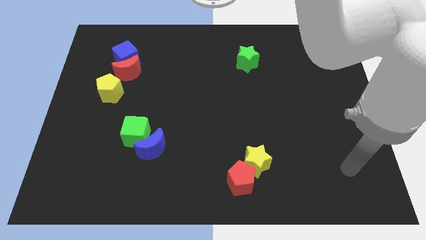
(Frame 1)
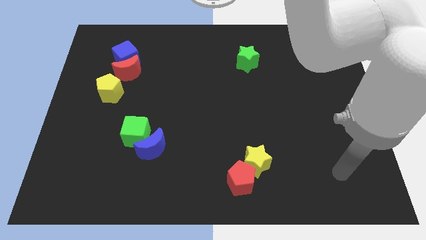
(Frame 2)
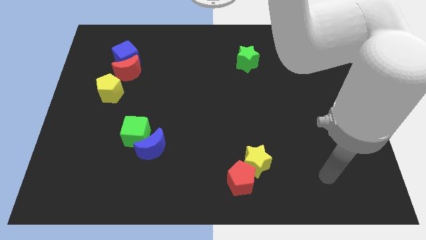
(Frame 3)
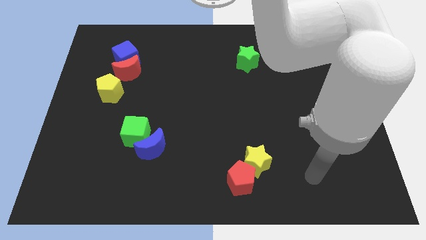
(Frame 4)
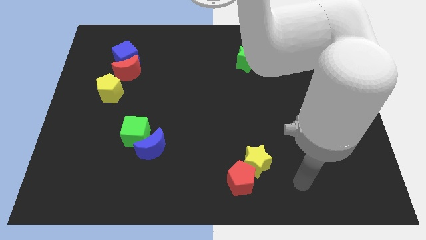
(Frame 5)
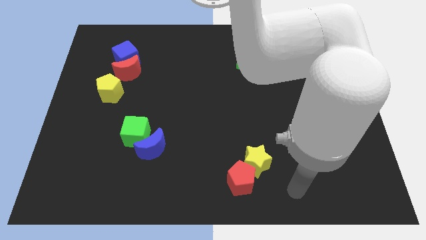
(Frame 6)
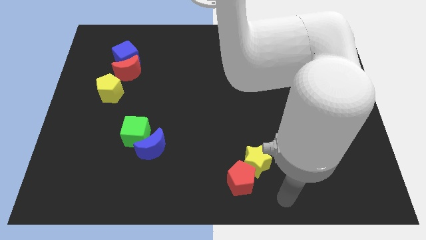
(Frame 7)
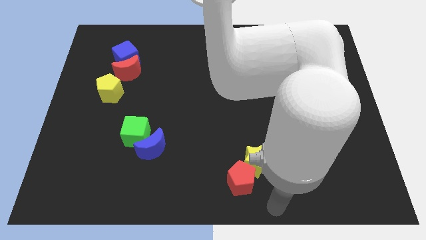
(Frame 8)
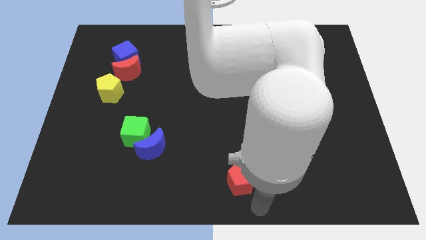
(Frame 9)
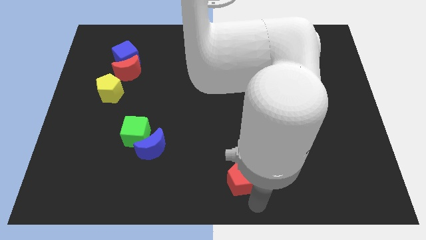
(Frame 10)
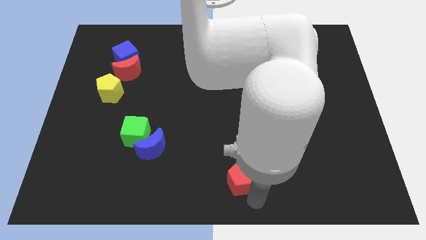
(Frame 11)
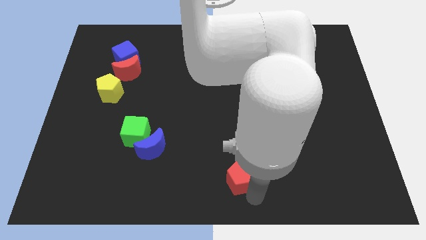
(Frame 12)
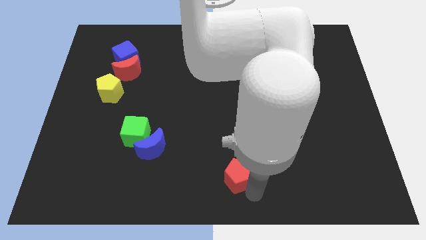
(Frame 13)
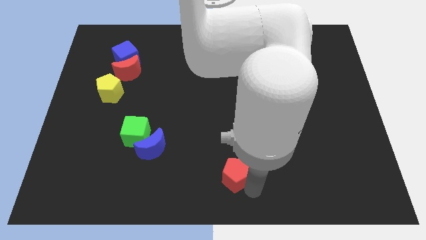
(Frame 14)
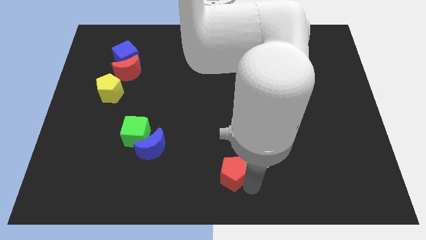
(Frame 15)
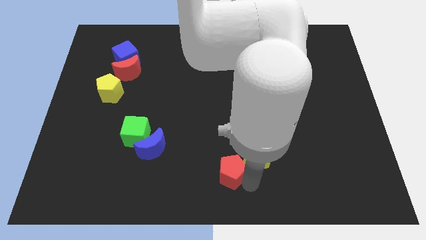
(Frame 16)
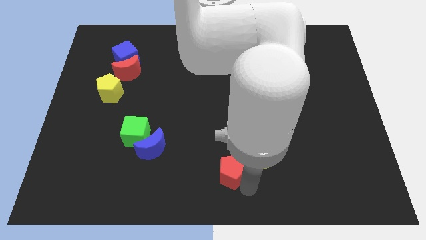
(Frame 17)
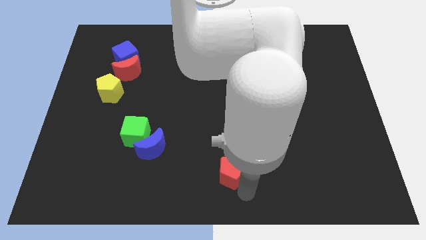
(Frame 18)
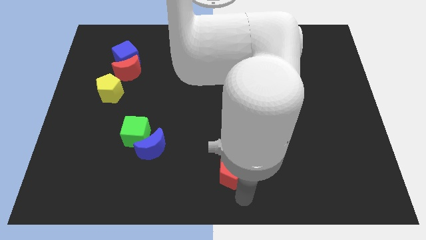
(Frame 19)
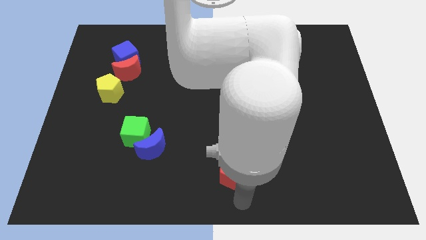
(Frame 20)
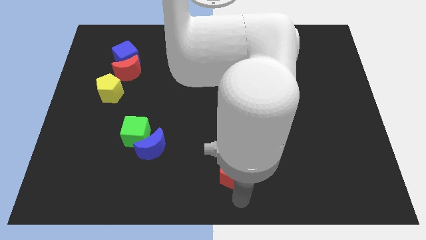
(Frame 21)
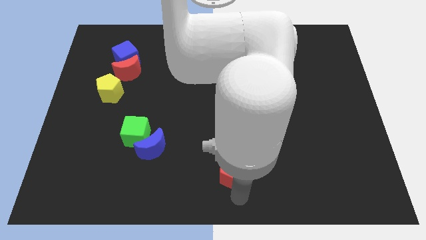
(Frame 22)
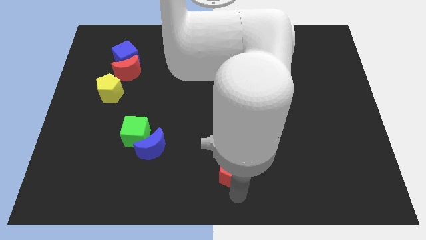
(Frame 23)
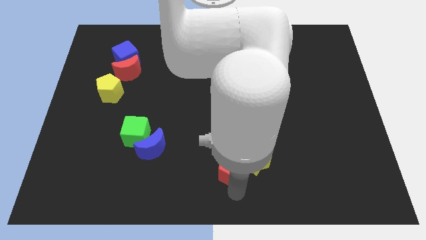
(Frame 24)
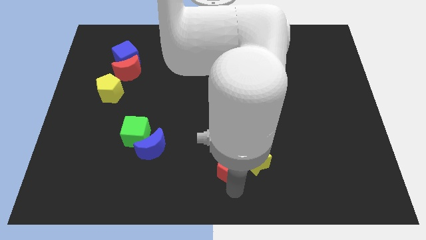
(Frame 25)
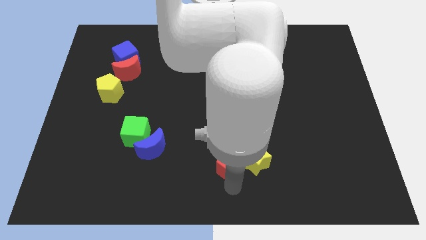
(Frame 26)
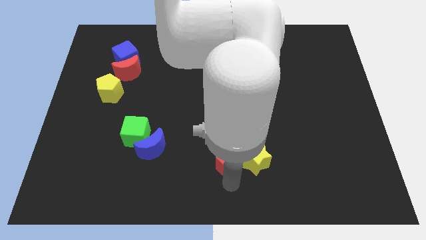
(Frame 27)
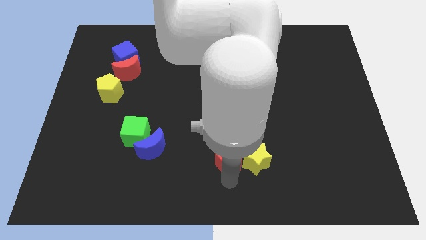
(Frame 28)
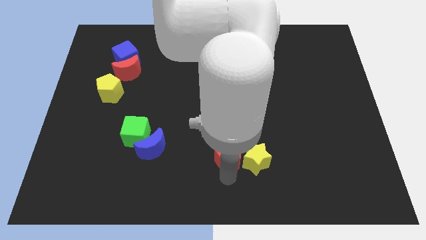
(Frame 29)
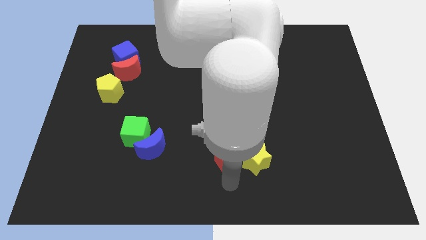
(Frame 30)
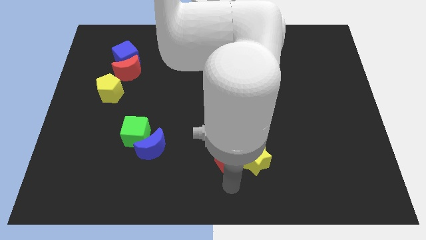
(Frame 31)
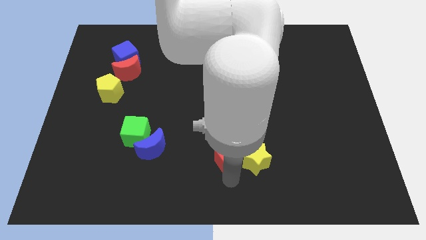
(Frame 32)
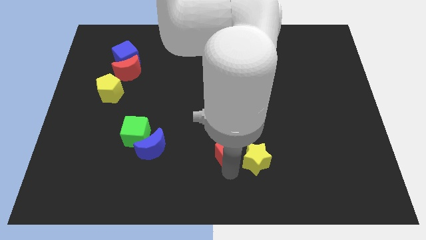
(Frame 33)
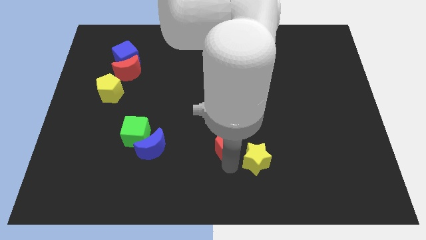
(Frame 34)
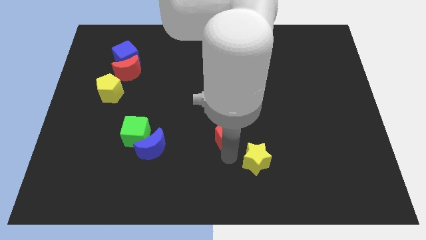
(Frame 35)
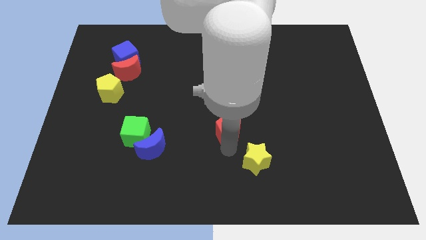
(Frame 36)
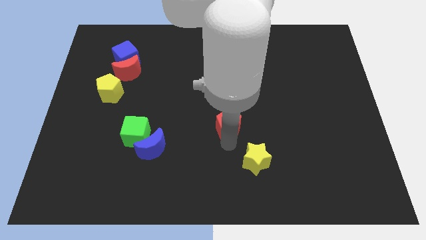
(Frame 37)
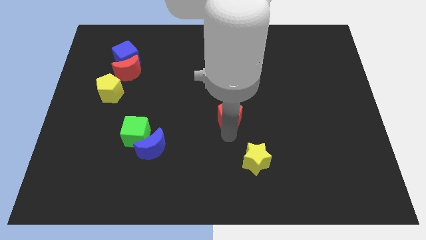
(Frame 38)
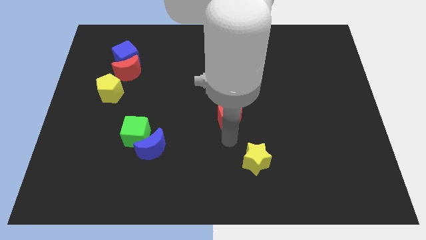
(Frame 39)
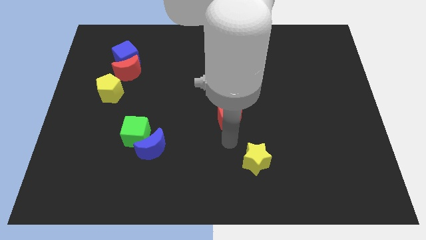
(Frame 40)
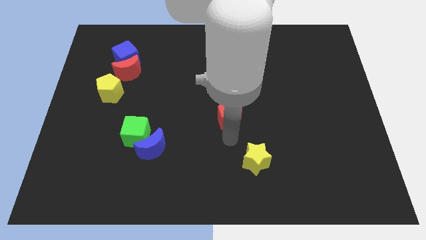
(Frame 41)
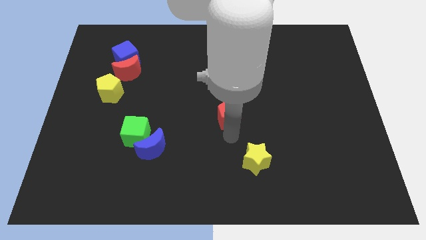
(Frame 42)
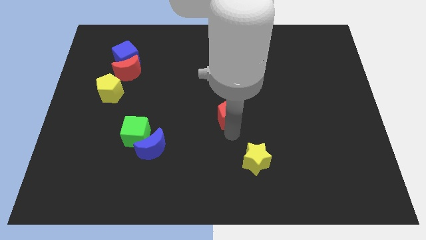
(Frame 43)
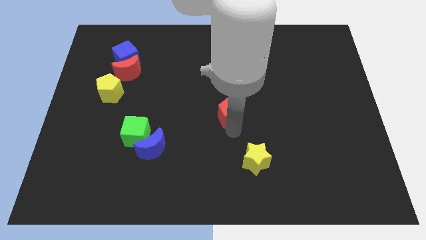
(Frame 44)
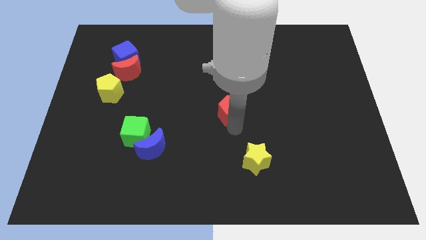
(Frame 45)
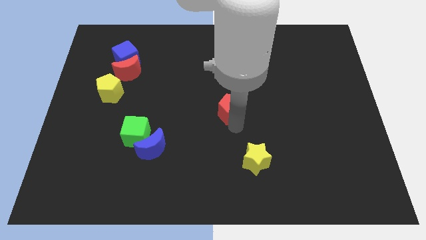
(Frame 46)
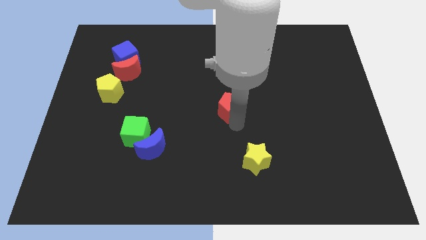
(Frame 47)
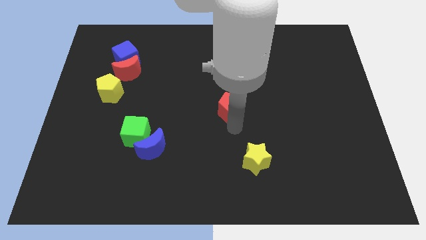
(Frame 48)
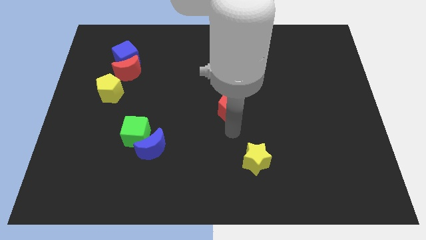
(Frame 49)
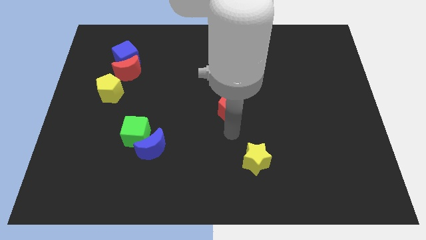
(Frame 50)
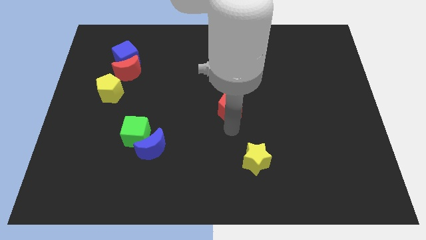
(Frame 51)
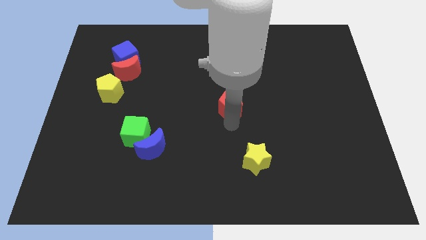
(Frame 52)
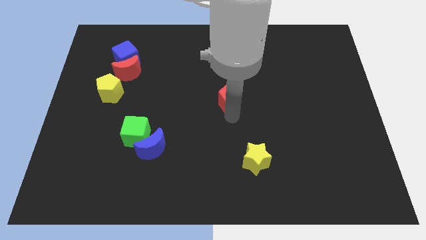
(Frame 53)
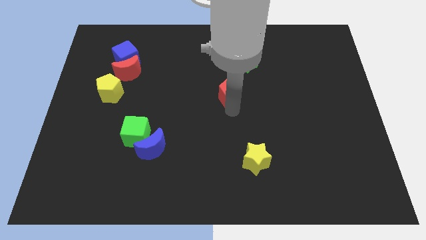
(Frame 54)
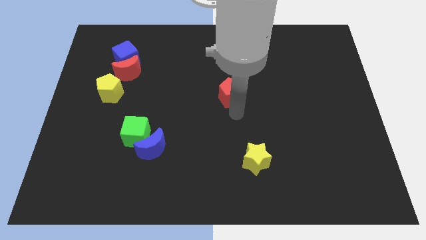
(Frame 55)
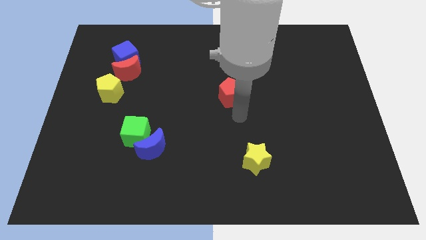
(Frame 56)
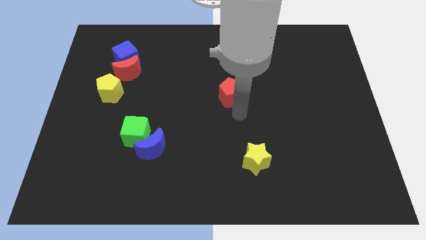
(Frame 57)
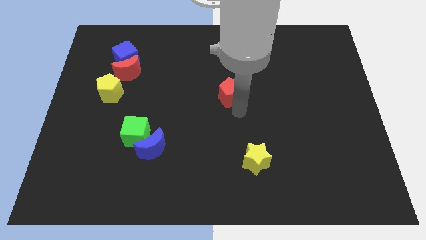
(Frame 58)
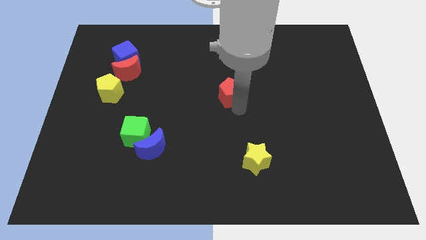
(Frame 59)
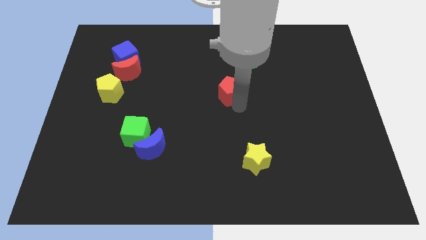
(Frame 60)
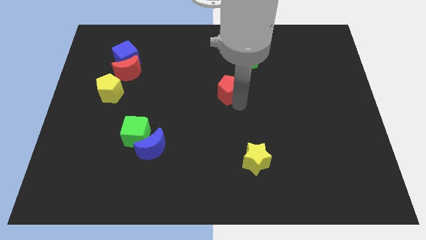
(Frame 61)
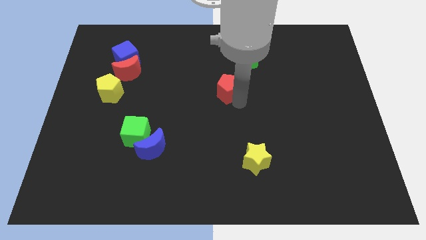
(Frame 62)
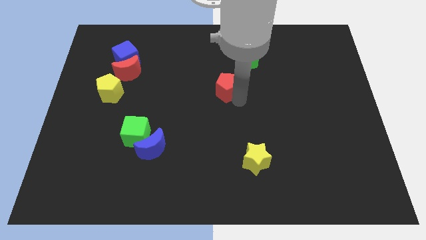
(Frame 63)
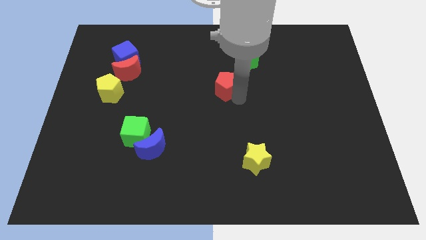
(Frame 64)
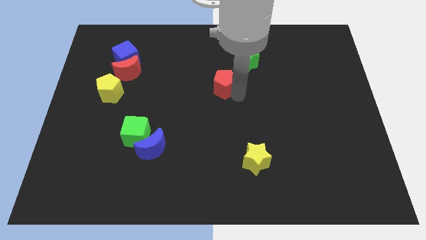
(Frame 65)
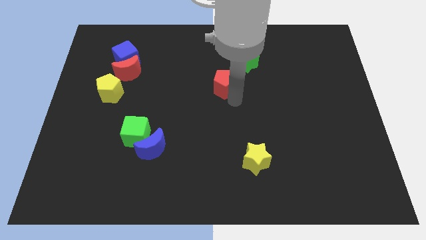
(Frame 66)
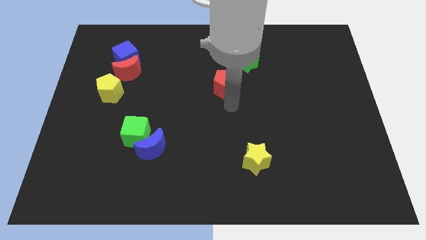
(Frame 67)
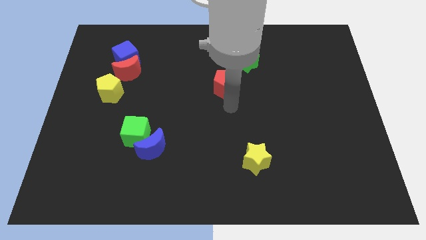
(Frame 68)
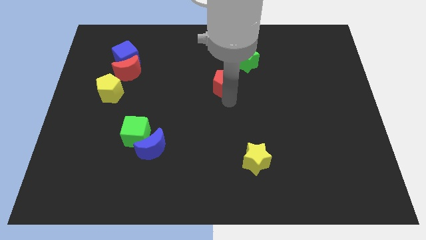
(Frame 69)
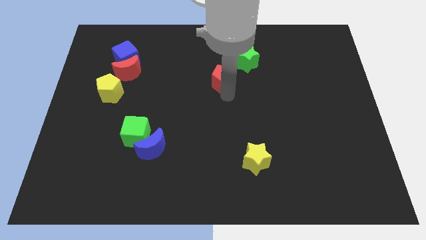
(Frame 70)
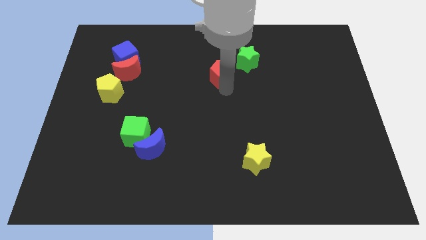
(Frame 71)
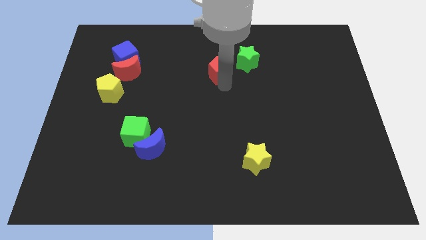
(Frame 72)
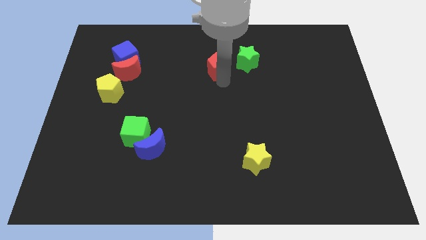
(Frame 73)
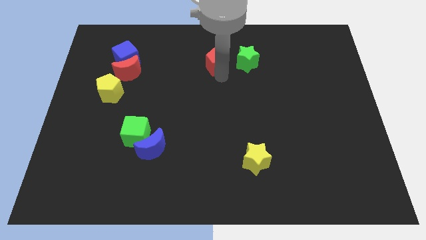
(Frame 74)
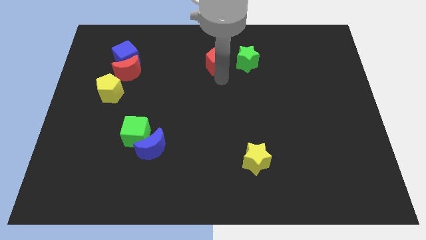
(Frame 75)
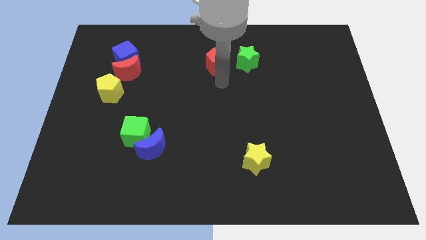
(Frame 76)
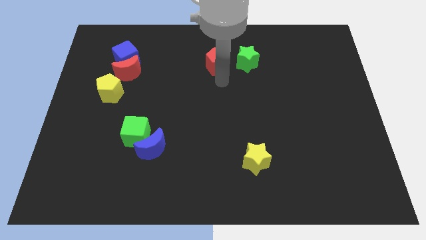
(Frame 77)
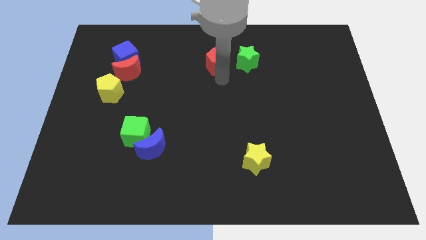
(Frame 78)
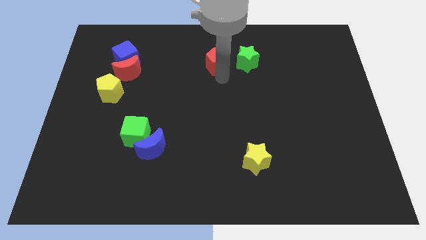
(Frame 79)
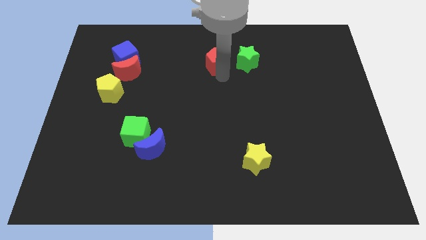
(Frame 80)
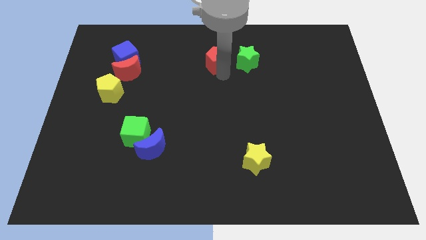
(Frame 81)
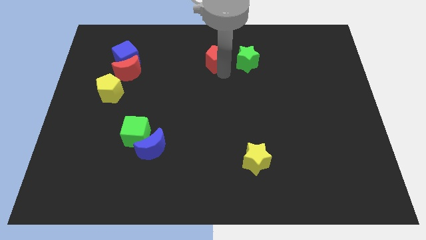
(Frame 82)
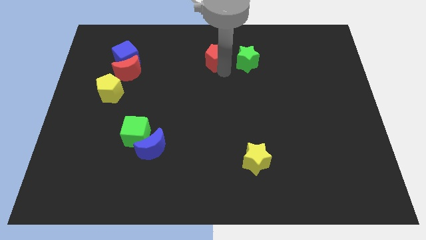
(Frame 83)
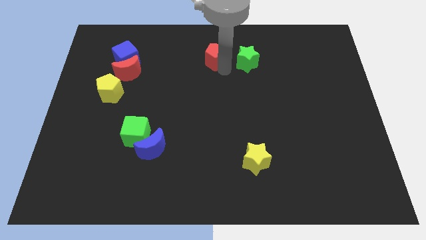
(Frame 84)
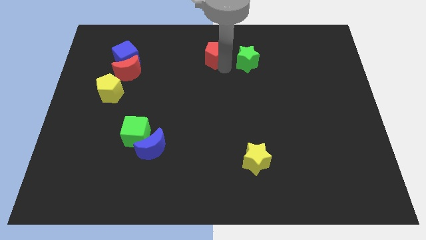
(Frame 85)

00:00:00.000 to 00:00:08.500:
slide the red pentagon to the top
